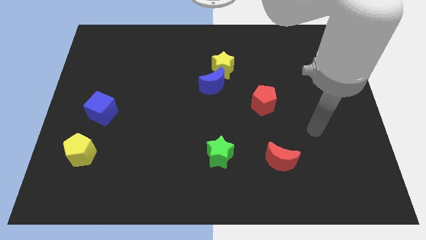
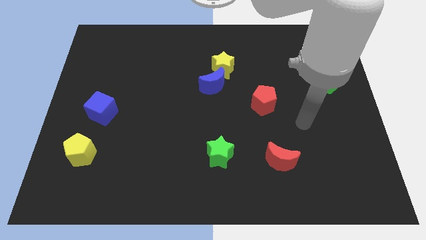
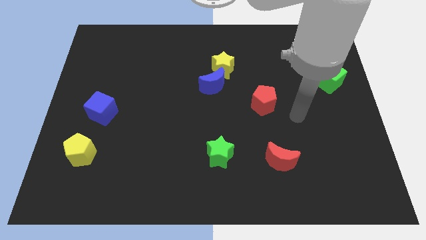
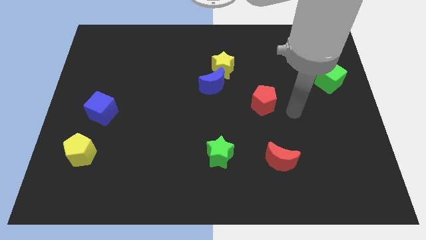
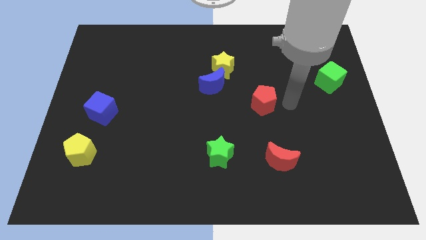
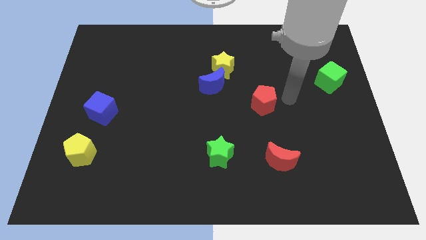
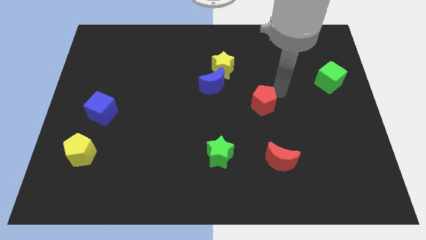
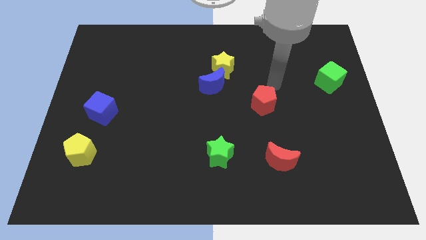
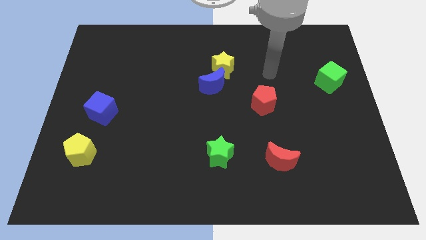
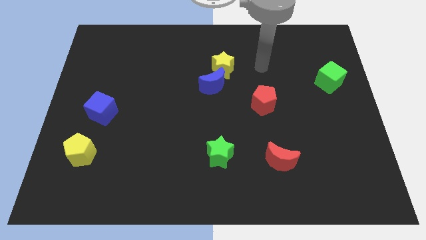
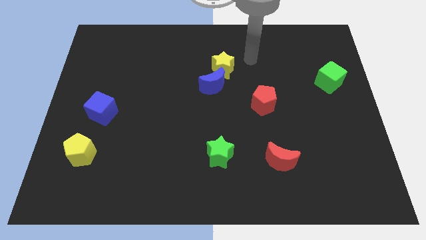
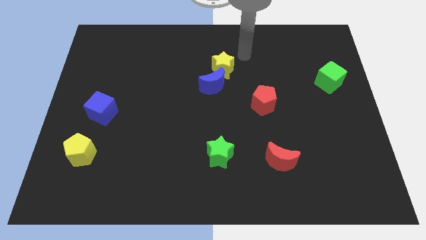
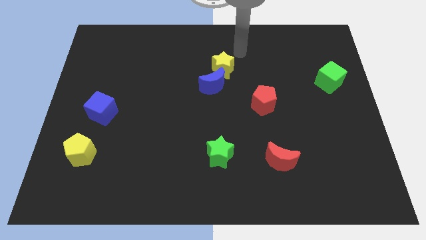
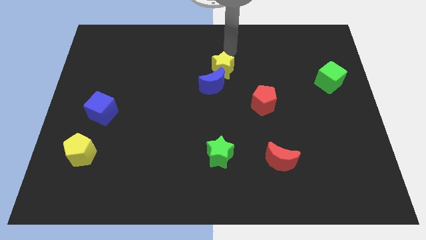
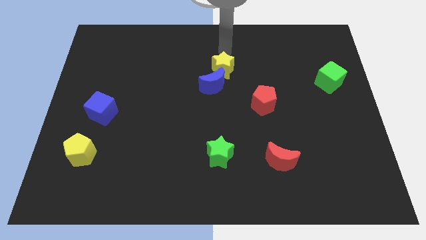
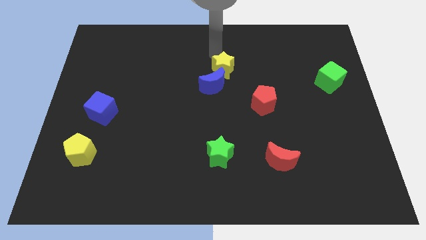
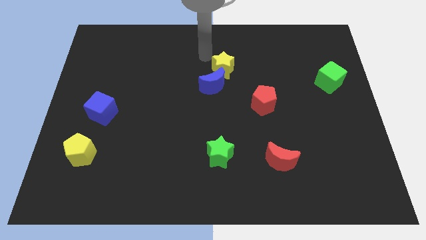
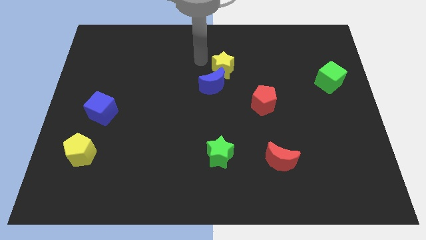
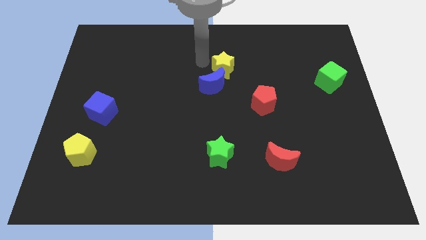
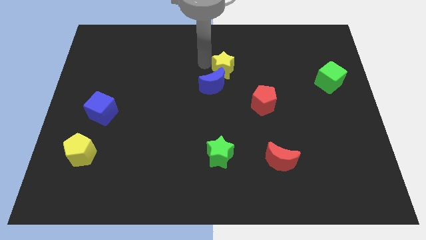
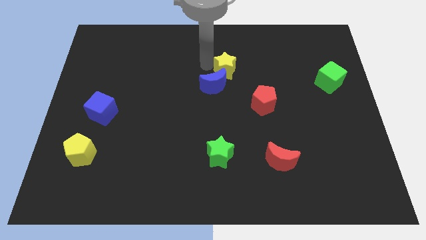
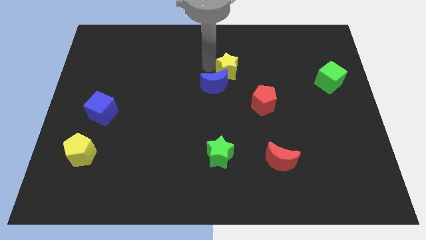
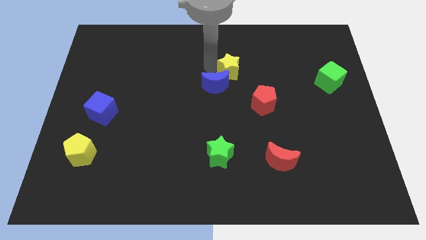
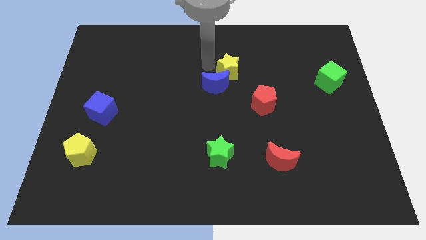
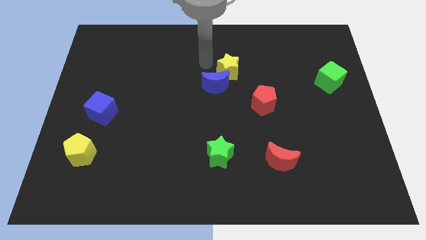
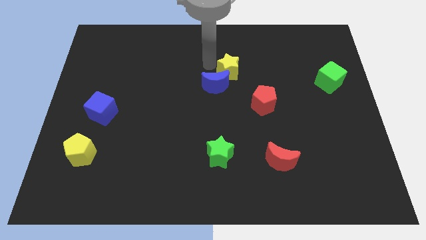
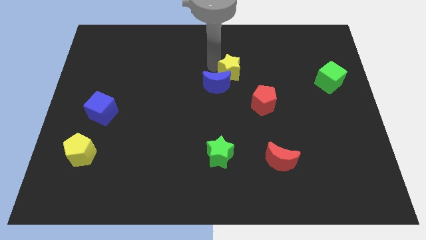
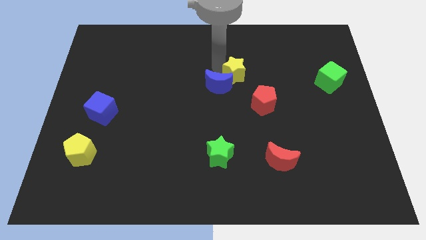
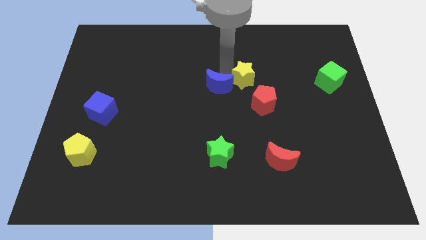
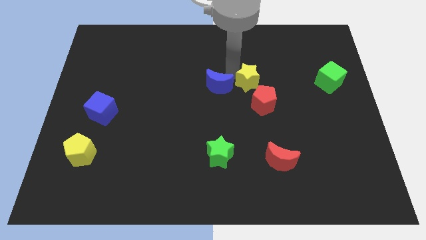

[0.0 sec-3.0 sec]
slide the yellow star down and then right a little bit

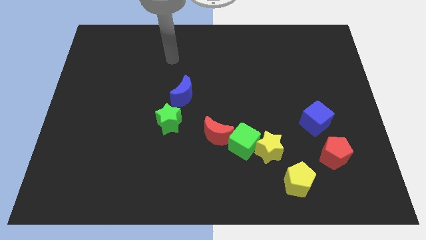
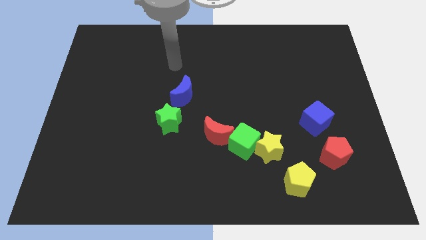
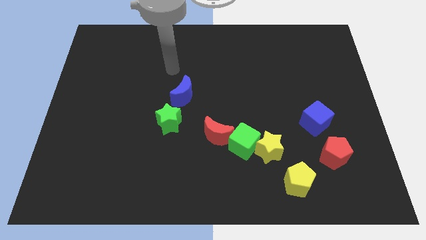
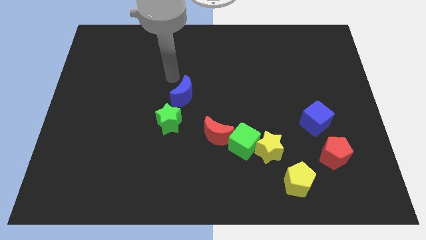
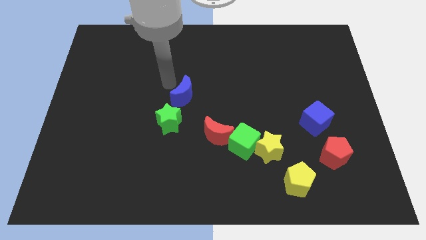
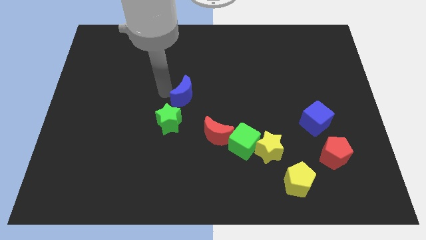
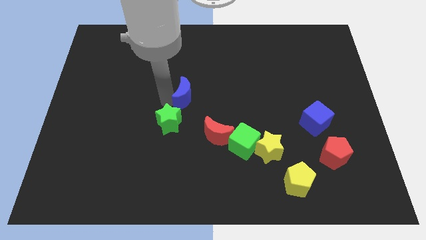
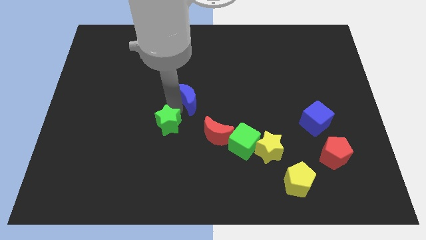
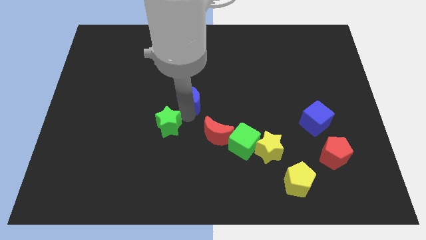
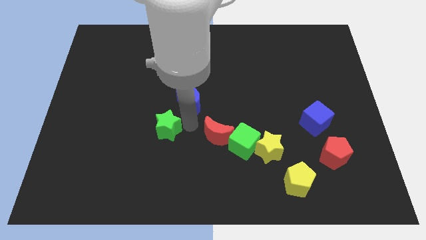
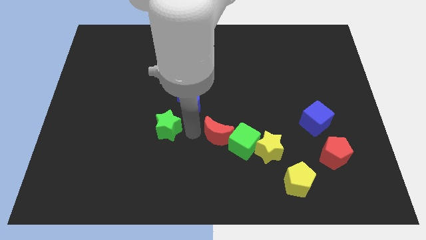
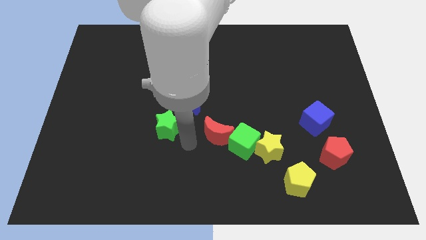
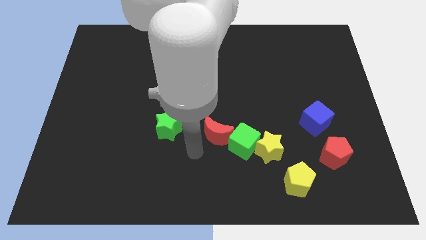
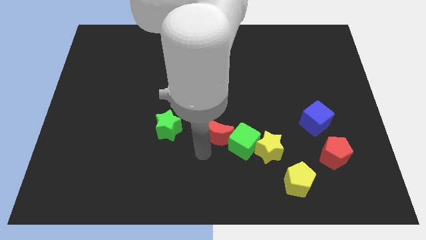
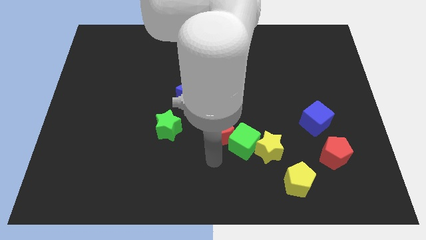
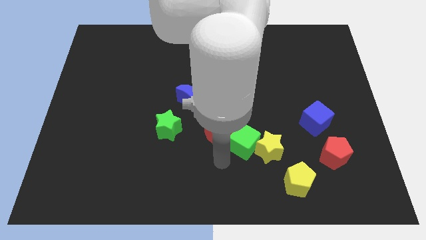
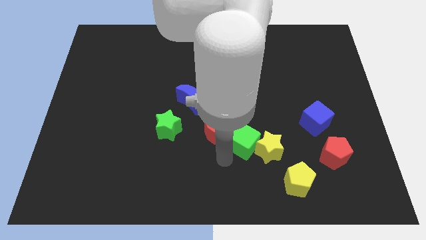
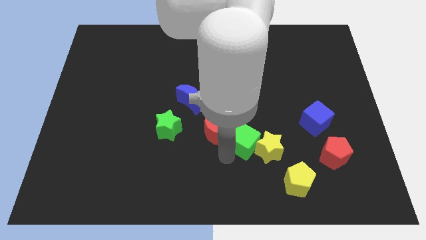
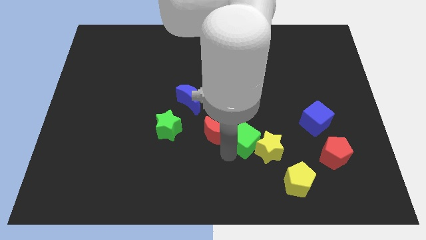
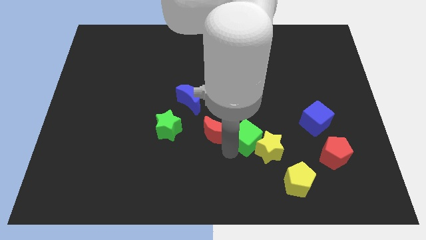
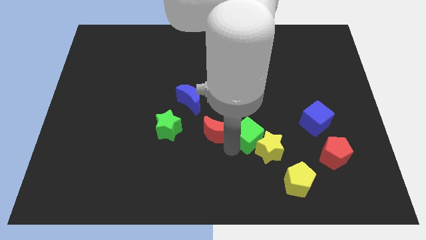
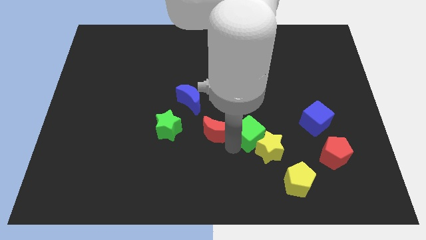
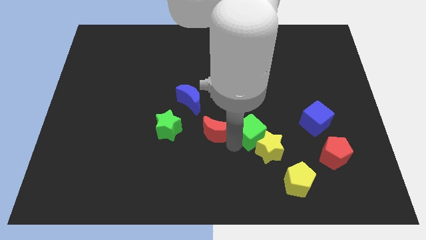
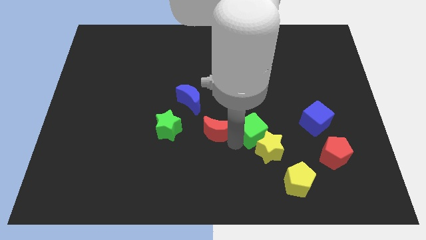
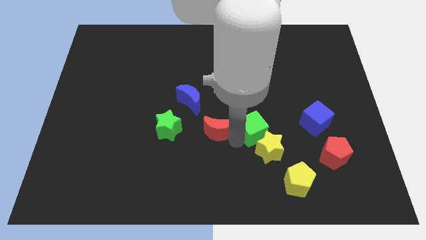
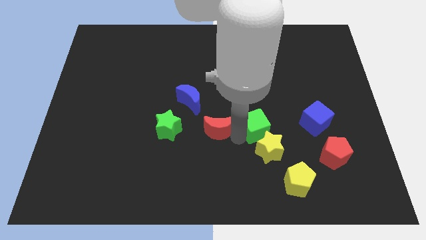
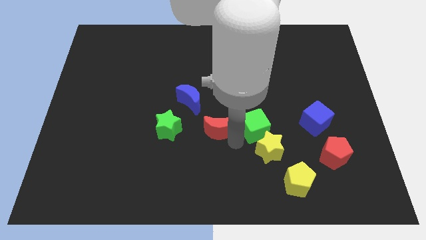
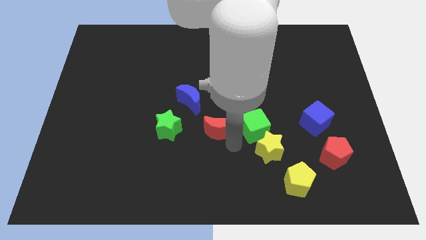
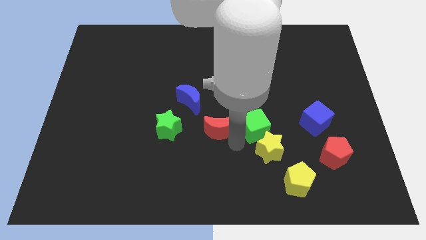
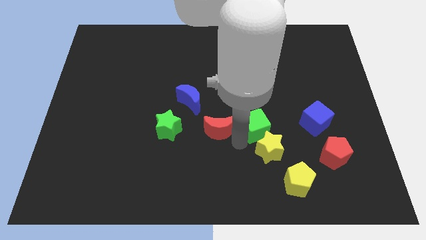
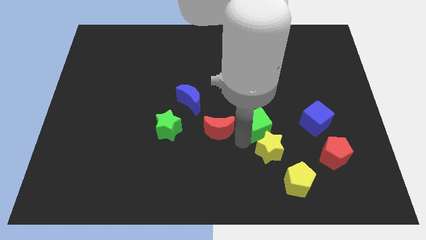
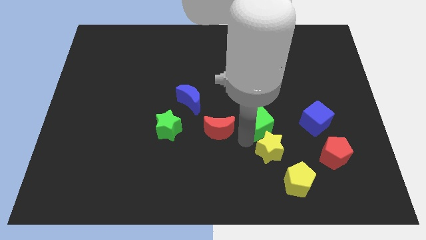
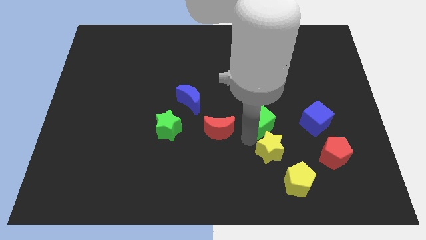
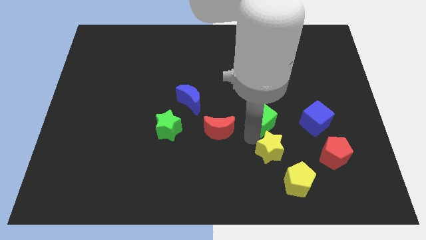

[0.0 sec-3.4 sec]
move the green cube slightly up and to the right diagonally

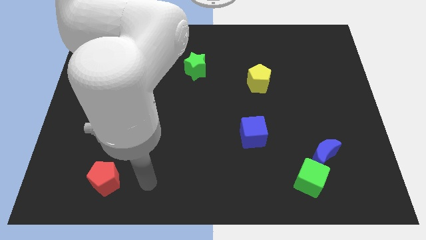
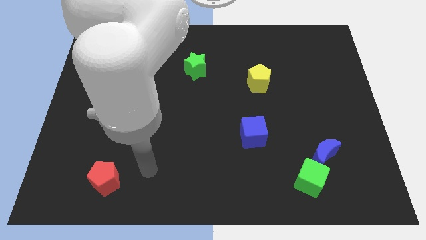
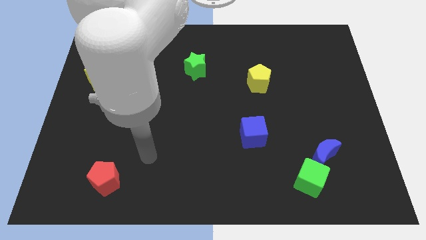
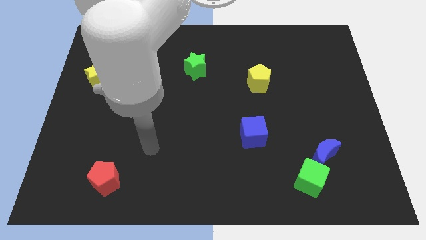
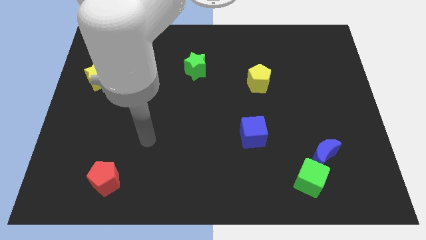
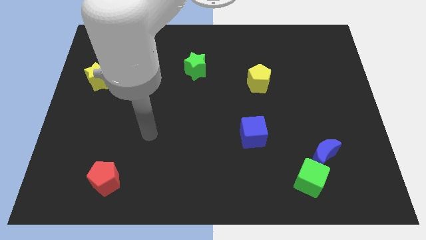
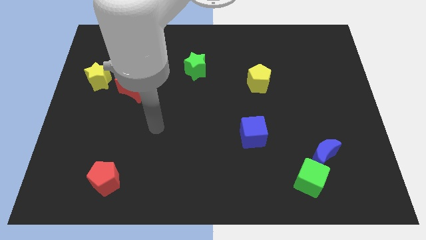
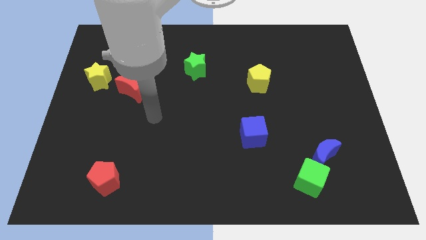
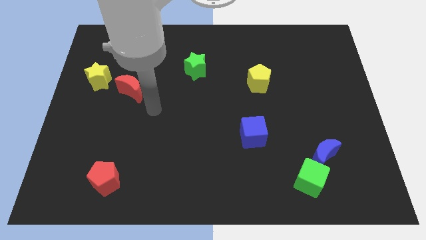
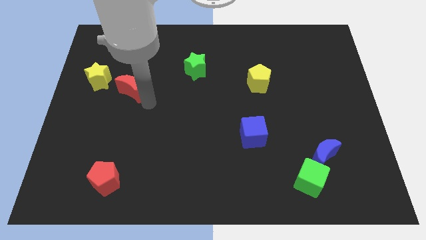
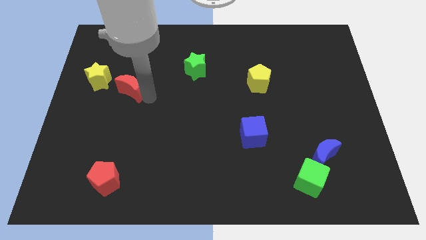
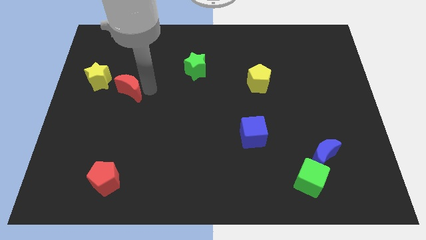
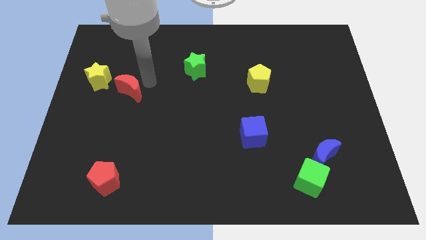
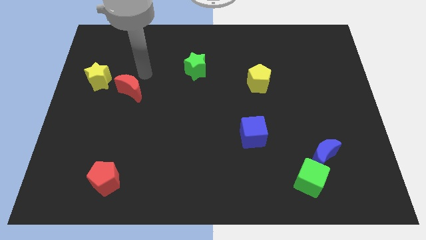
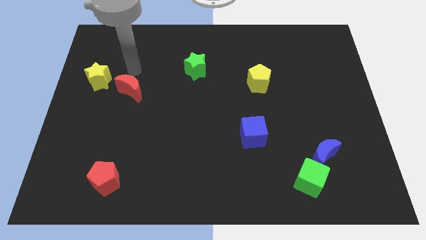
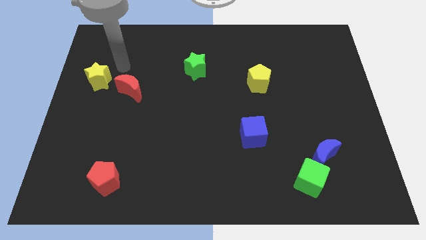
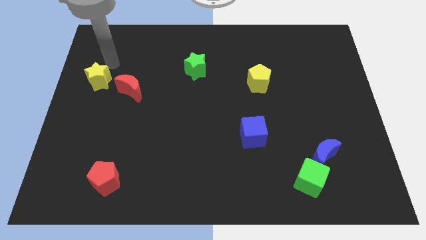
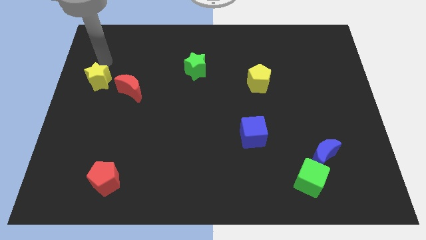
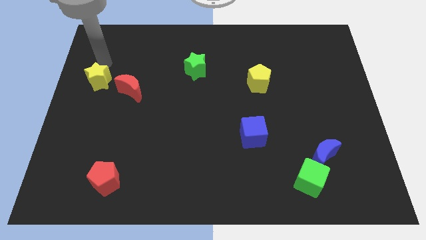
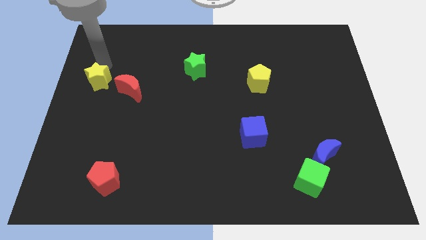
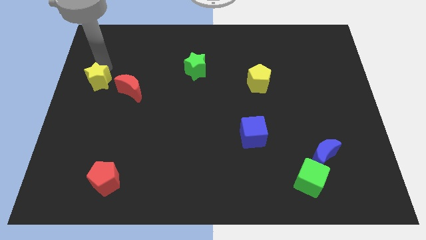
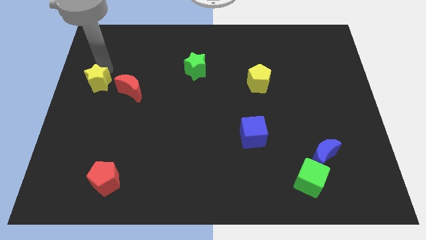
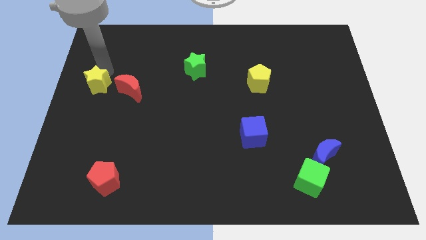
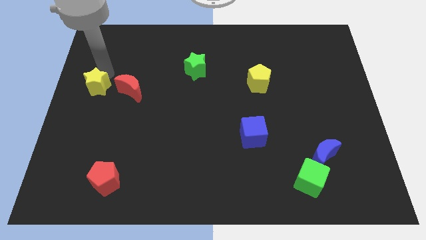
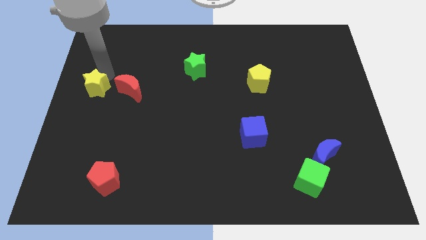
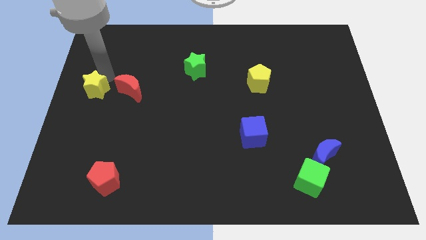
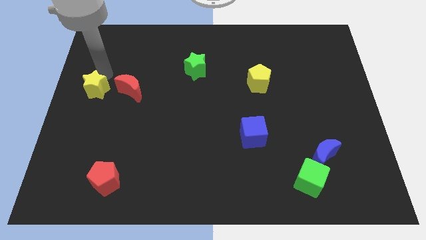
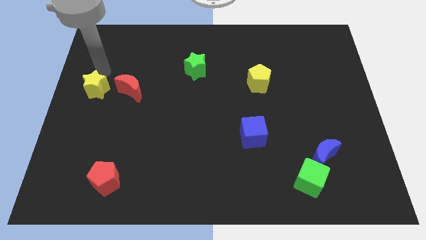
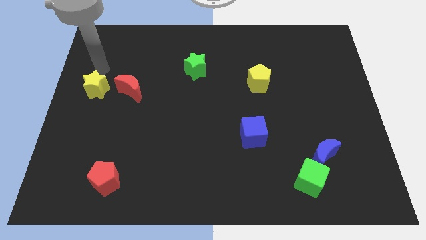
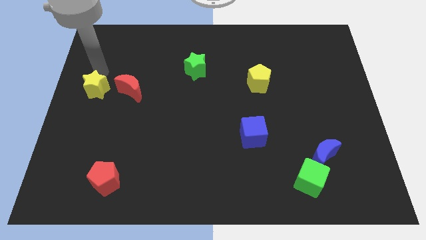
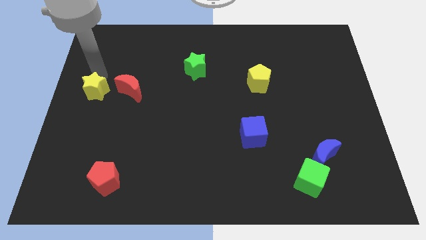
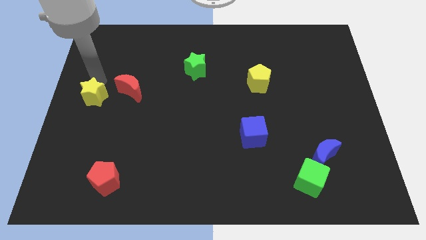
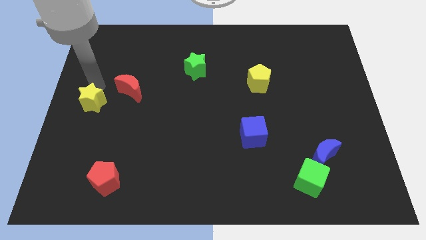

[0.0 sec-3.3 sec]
move the yellow star slightly downwards
